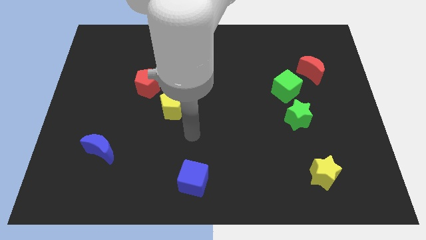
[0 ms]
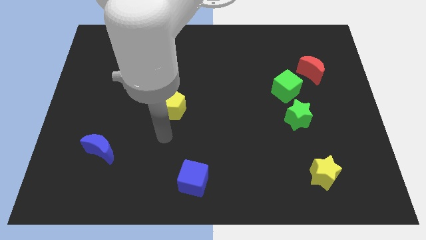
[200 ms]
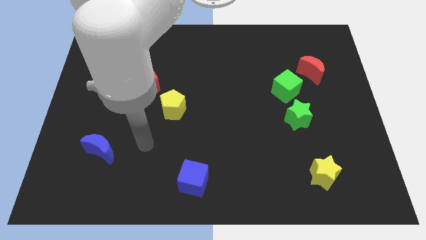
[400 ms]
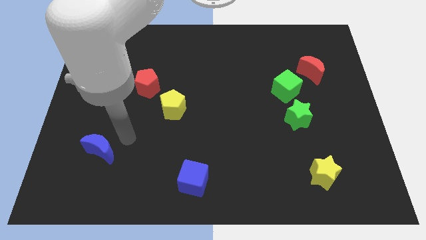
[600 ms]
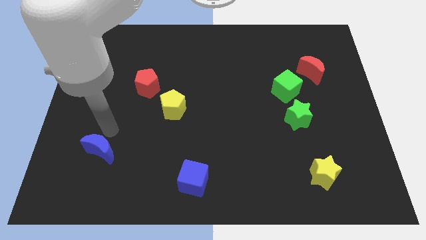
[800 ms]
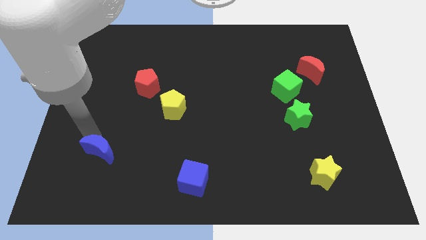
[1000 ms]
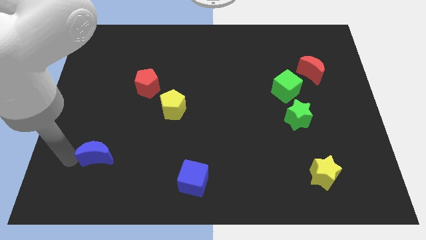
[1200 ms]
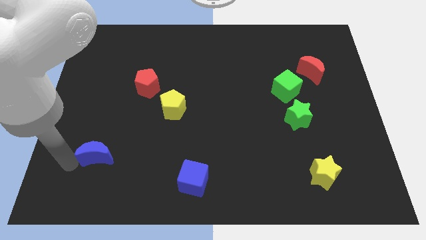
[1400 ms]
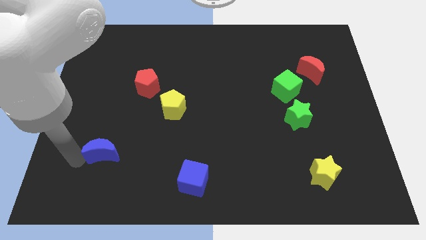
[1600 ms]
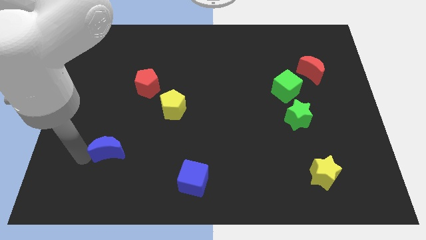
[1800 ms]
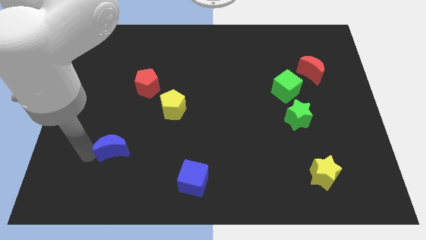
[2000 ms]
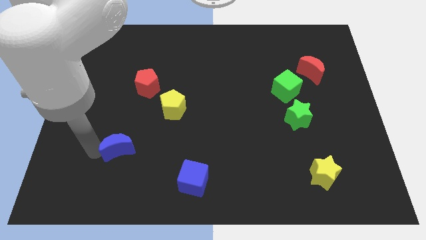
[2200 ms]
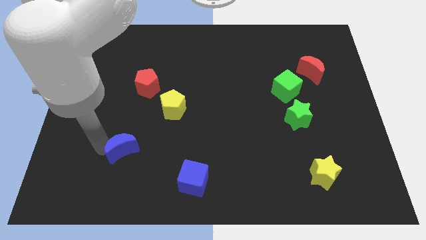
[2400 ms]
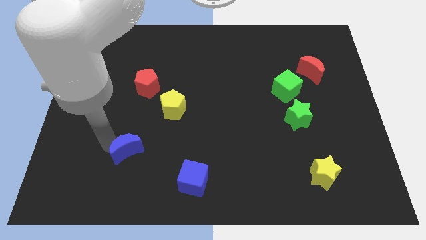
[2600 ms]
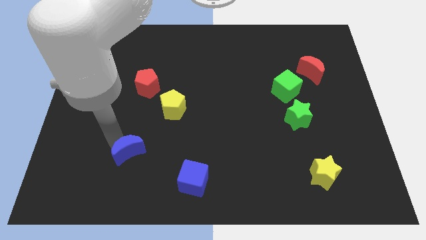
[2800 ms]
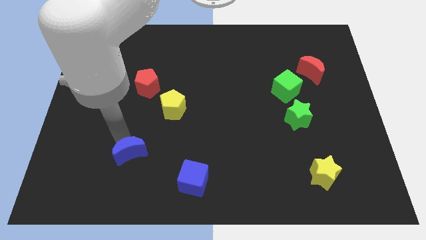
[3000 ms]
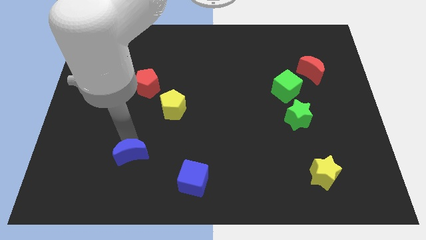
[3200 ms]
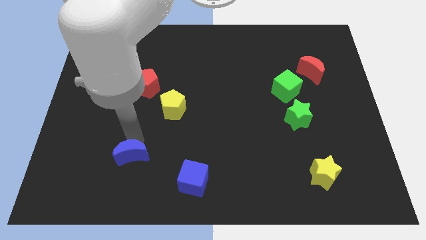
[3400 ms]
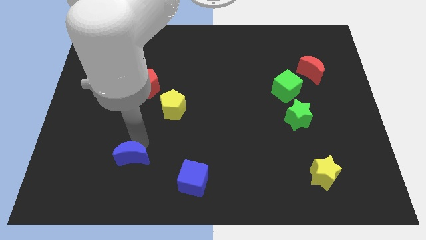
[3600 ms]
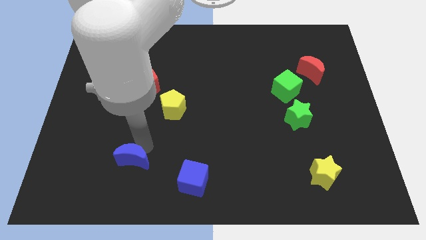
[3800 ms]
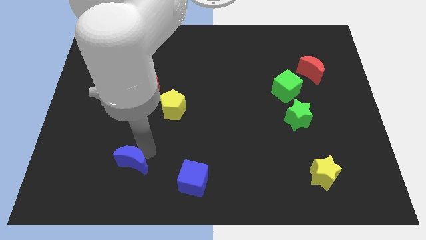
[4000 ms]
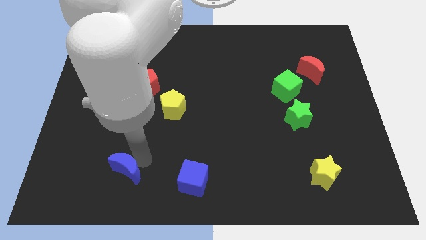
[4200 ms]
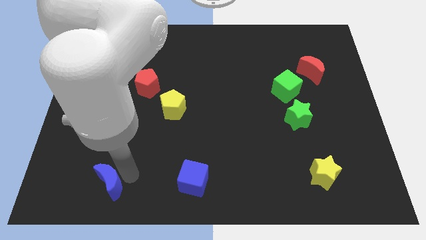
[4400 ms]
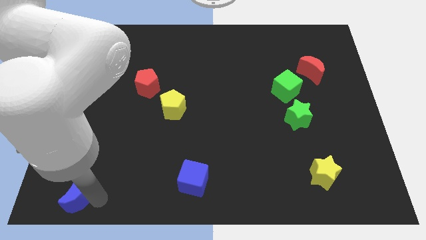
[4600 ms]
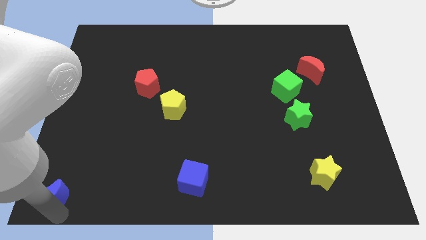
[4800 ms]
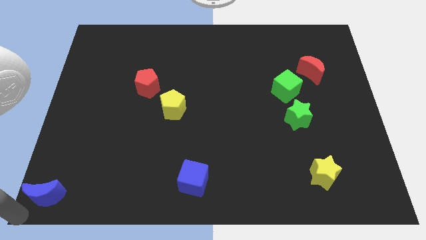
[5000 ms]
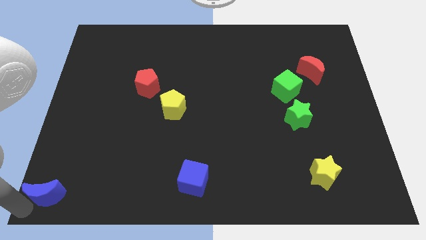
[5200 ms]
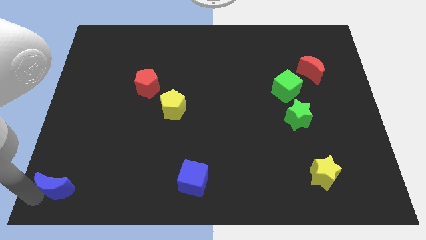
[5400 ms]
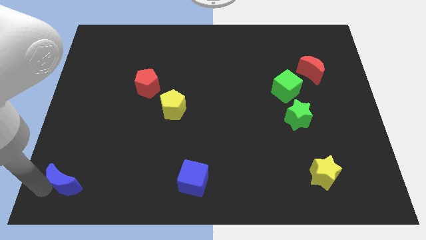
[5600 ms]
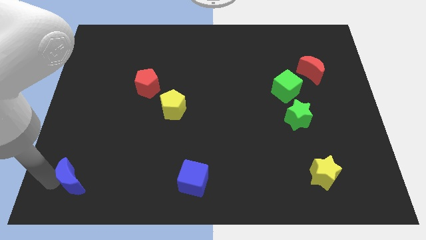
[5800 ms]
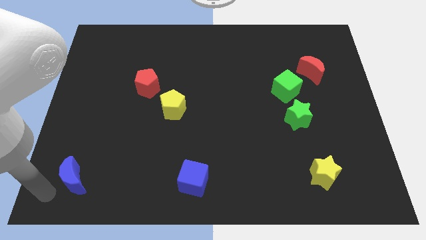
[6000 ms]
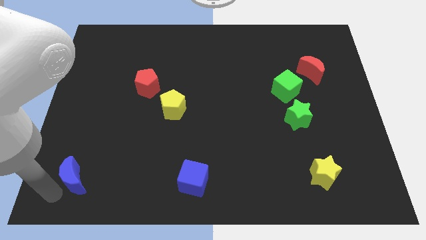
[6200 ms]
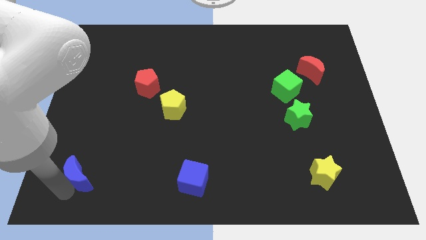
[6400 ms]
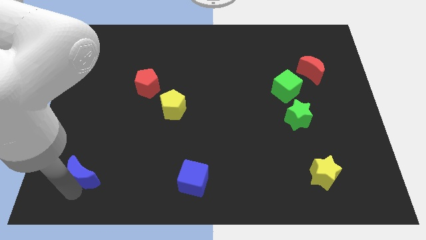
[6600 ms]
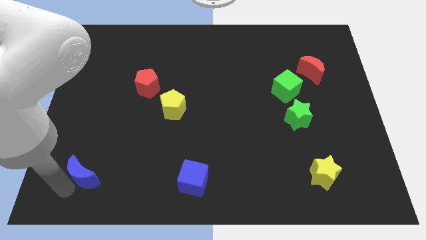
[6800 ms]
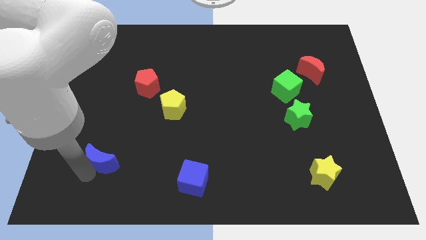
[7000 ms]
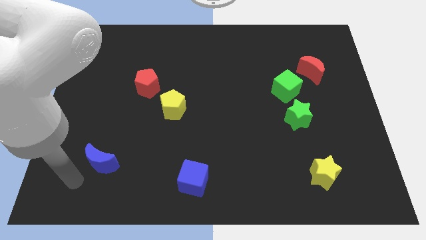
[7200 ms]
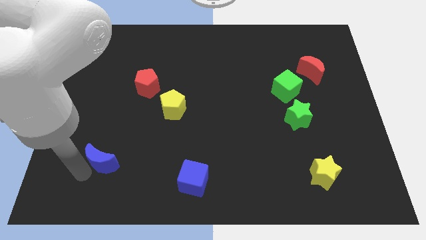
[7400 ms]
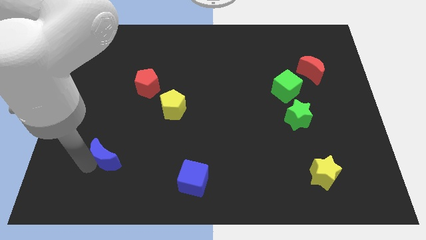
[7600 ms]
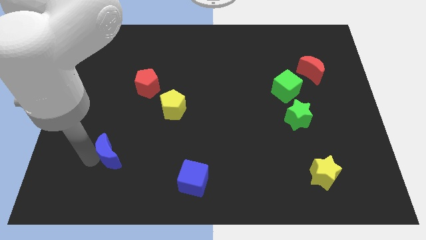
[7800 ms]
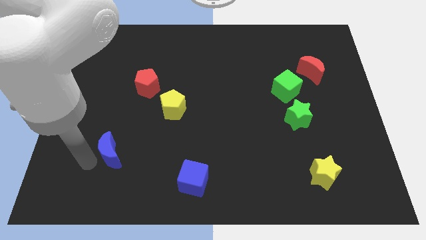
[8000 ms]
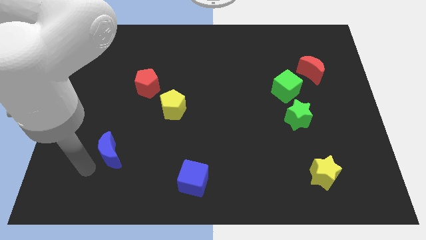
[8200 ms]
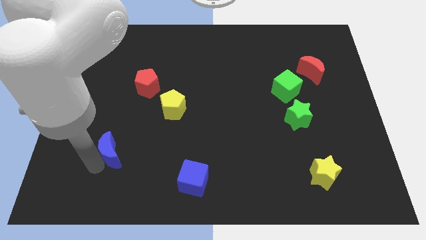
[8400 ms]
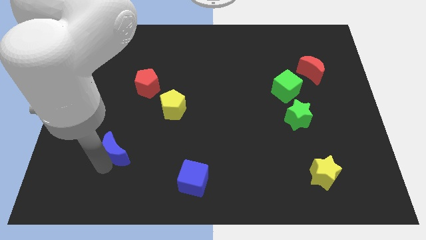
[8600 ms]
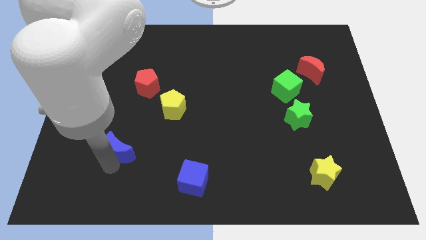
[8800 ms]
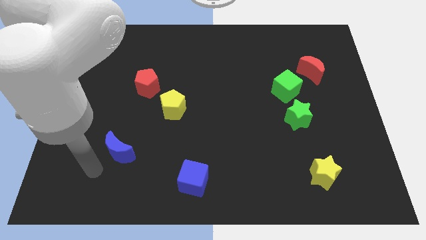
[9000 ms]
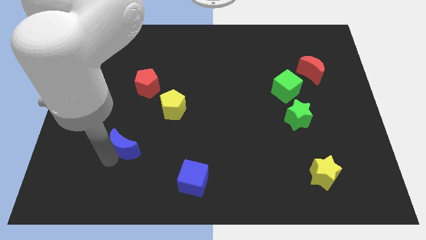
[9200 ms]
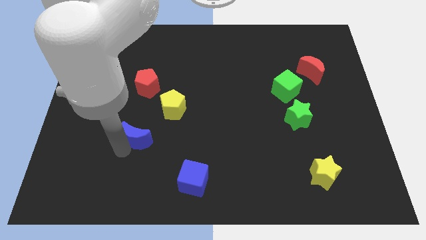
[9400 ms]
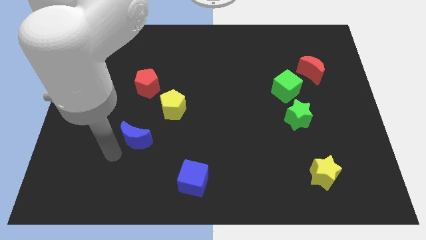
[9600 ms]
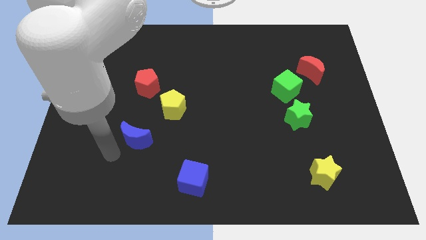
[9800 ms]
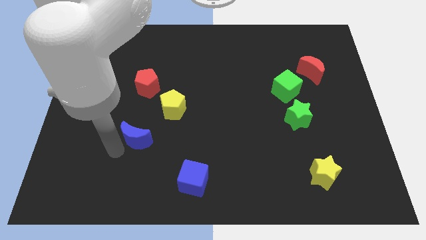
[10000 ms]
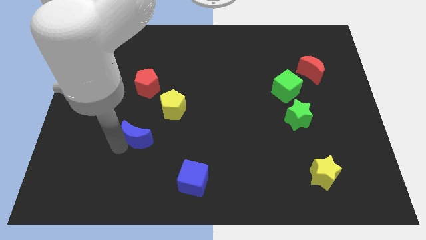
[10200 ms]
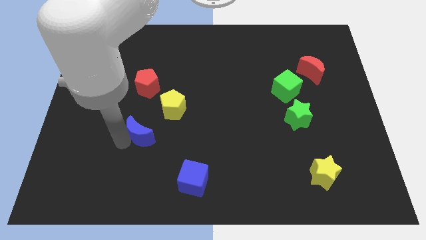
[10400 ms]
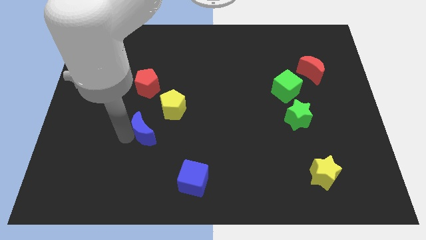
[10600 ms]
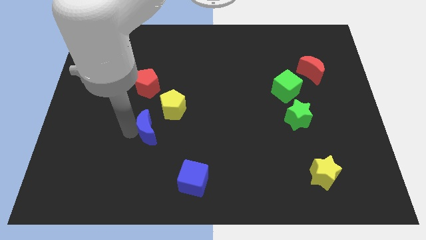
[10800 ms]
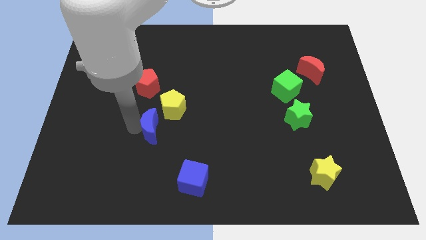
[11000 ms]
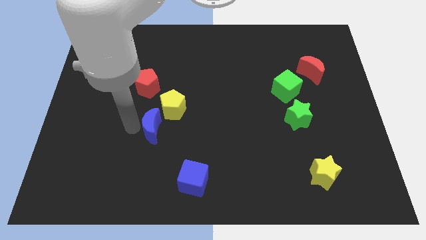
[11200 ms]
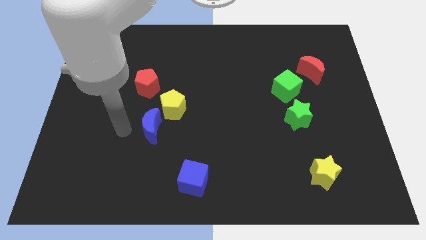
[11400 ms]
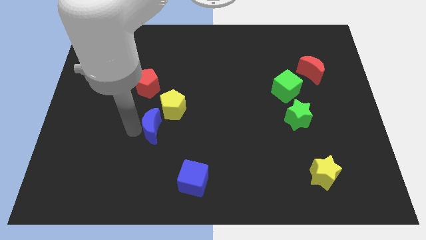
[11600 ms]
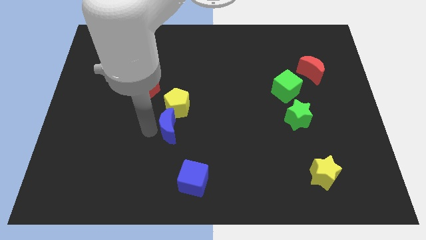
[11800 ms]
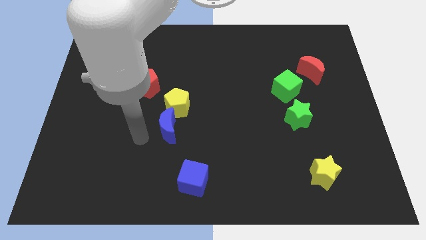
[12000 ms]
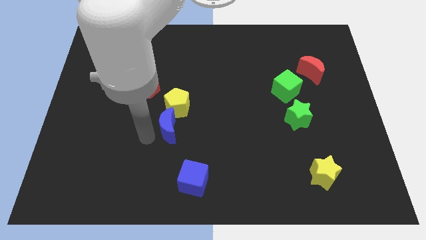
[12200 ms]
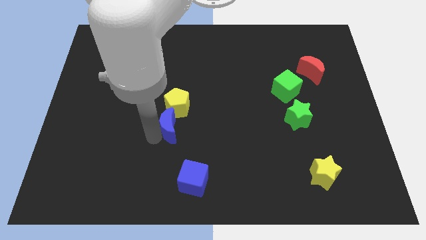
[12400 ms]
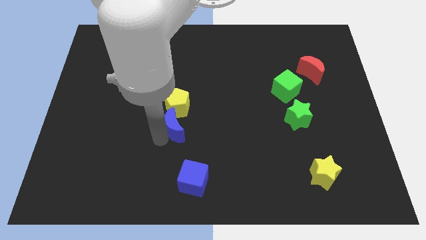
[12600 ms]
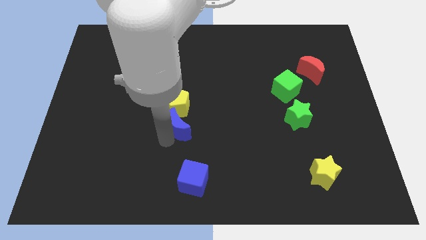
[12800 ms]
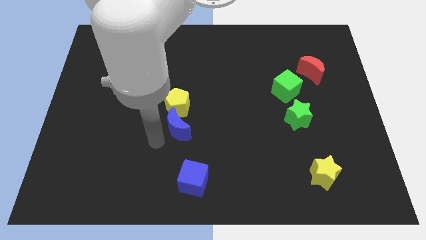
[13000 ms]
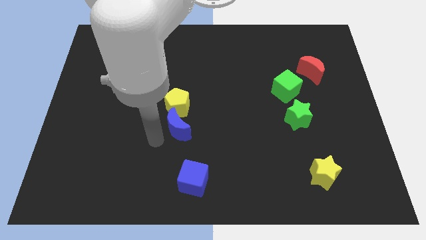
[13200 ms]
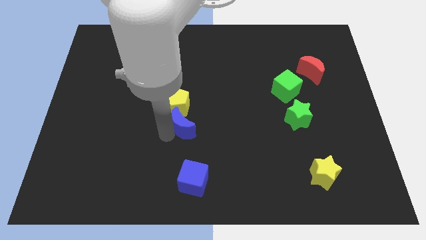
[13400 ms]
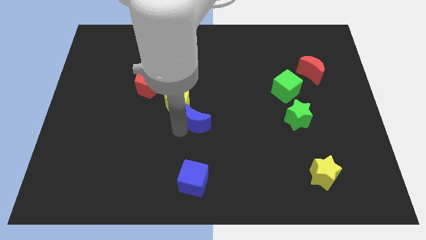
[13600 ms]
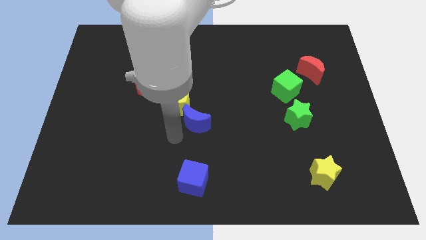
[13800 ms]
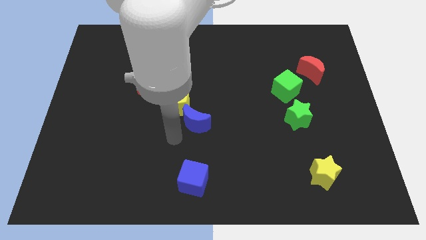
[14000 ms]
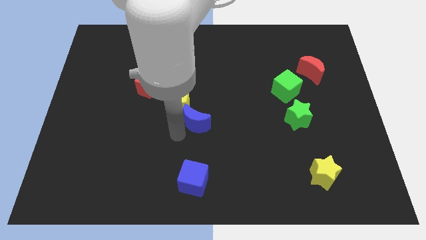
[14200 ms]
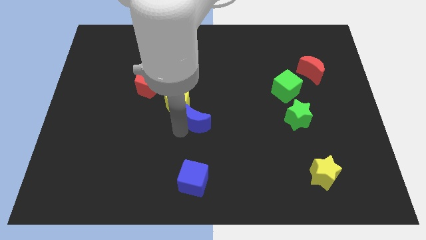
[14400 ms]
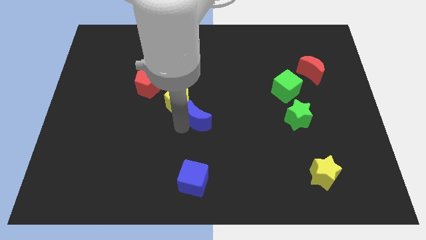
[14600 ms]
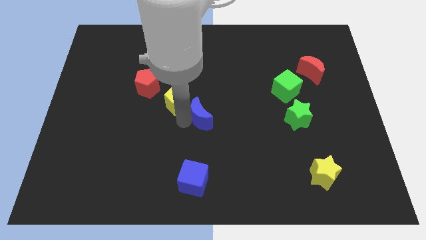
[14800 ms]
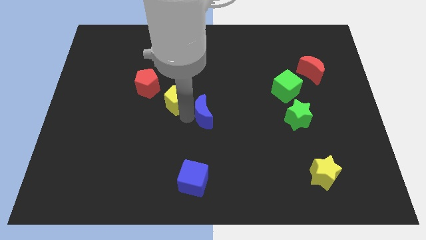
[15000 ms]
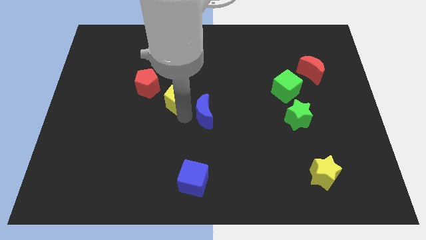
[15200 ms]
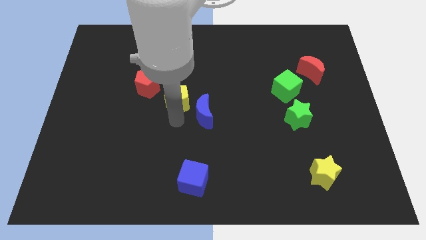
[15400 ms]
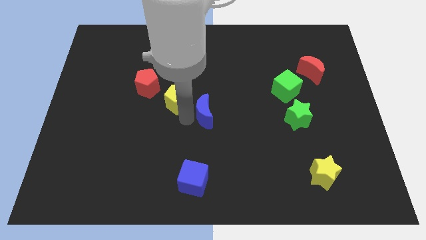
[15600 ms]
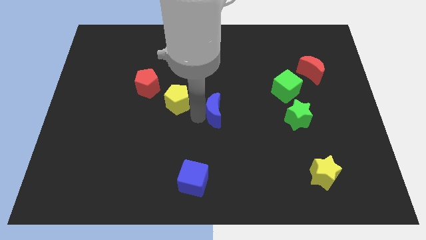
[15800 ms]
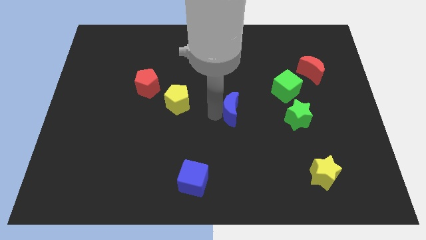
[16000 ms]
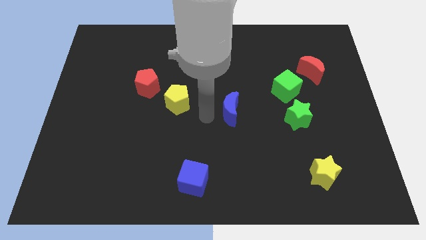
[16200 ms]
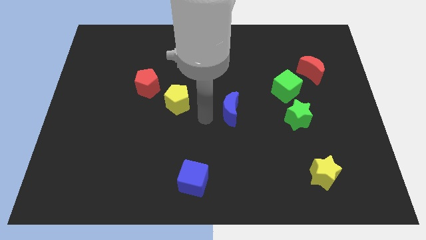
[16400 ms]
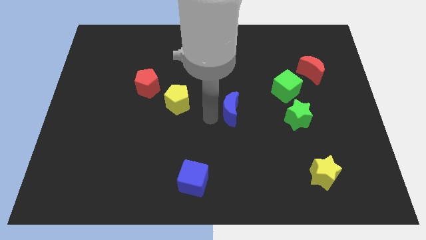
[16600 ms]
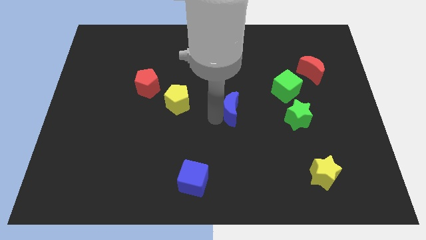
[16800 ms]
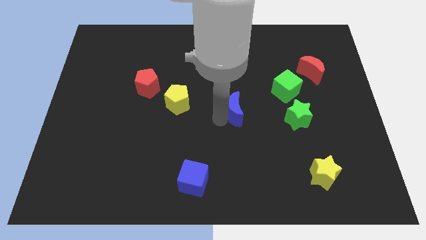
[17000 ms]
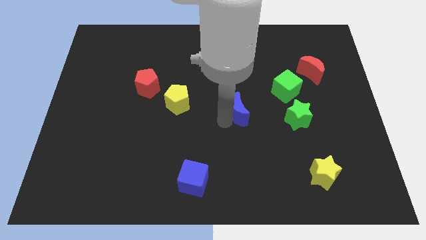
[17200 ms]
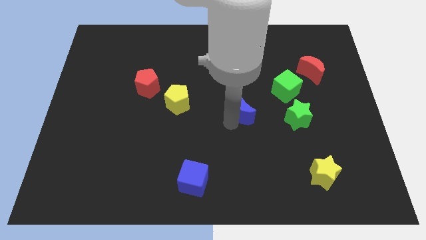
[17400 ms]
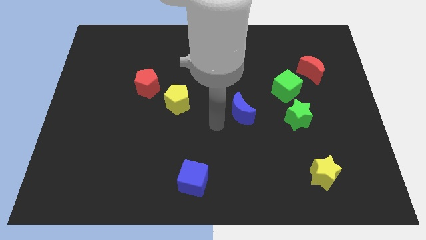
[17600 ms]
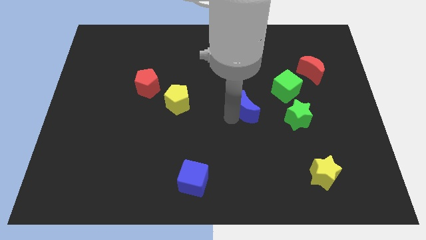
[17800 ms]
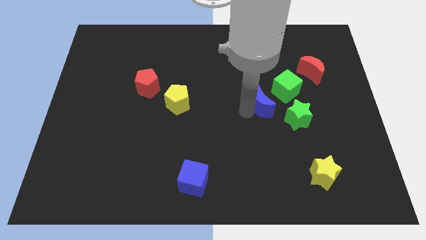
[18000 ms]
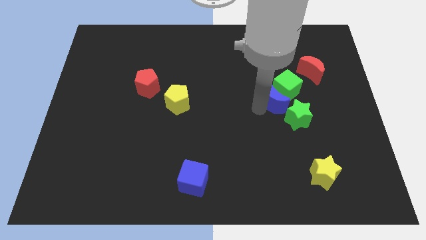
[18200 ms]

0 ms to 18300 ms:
move the blue moon close to the green cube
